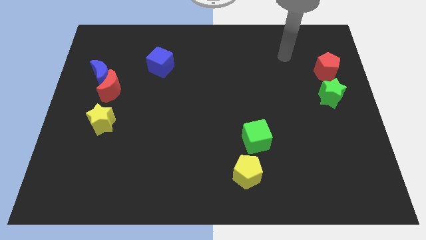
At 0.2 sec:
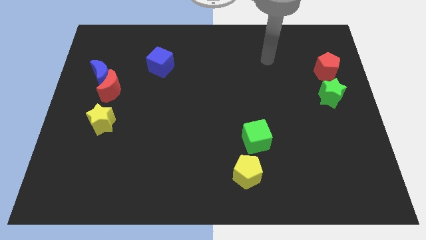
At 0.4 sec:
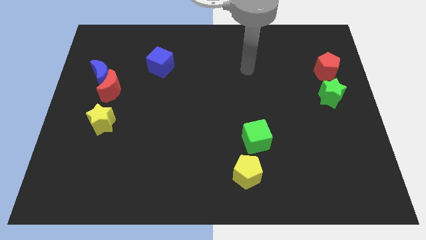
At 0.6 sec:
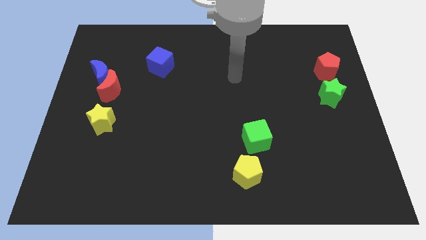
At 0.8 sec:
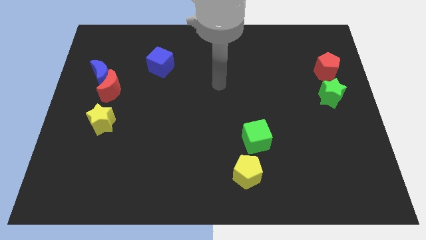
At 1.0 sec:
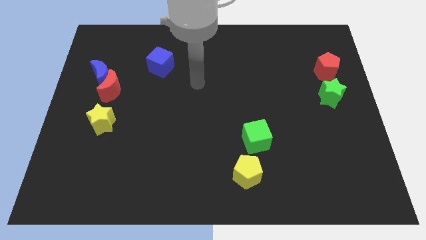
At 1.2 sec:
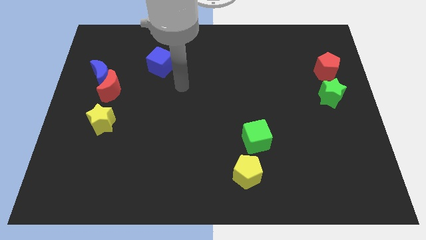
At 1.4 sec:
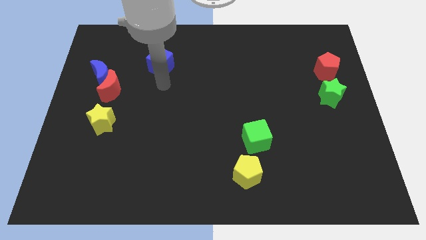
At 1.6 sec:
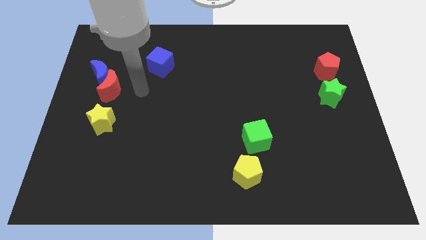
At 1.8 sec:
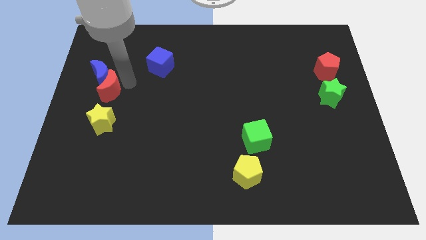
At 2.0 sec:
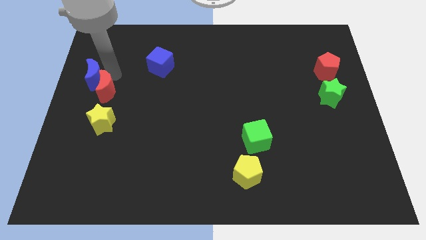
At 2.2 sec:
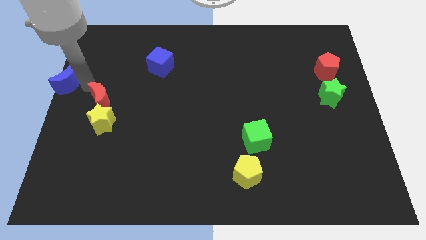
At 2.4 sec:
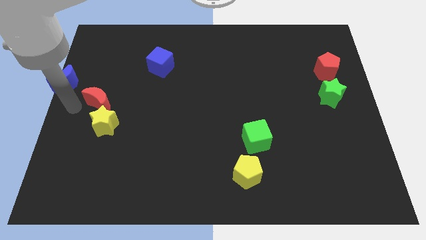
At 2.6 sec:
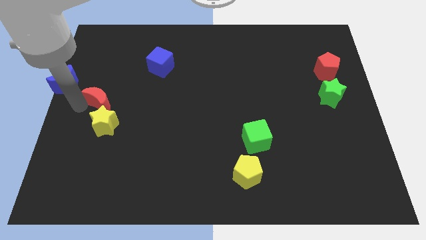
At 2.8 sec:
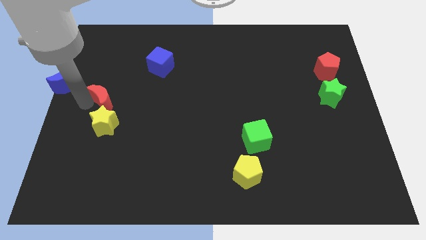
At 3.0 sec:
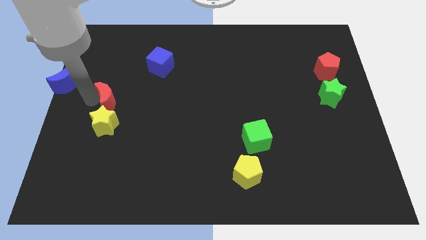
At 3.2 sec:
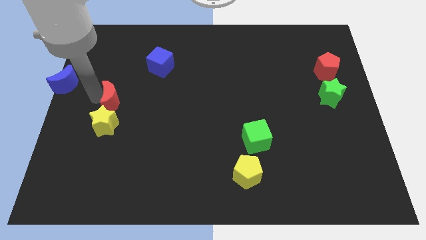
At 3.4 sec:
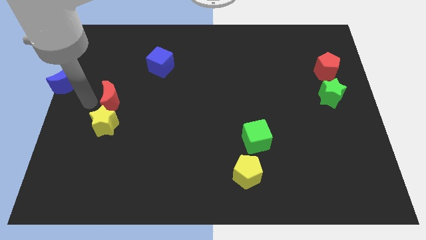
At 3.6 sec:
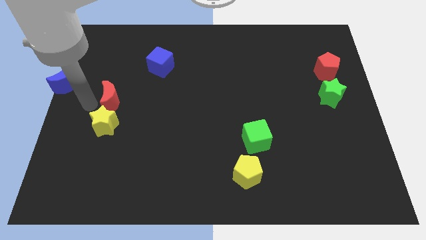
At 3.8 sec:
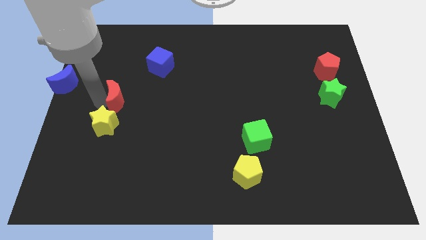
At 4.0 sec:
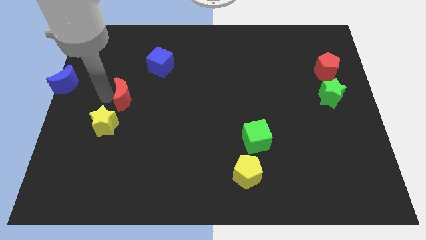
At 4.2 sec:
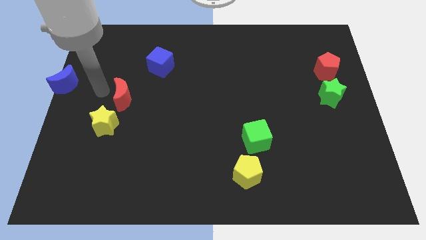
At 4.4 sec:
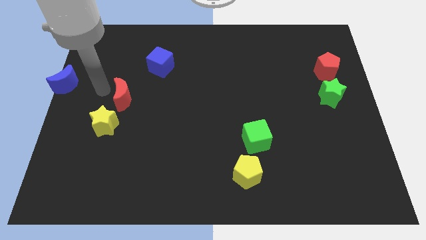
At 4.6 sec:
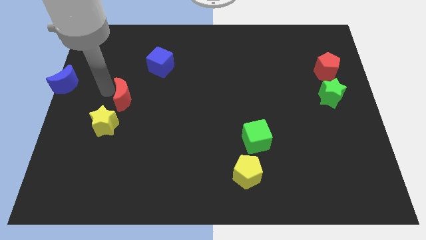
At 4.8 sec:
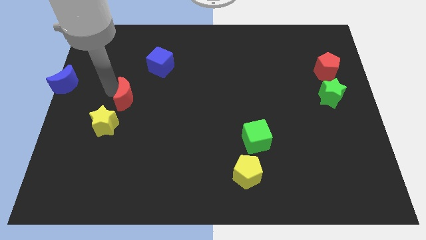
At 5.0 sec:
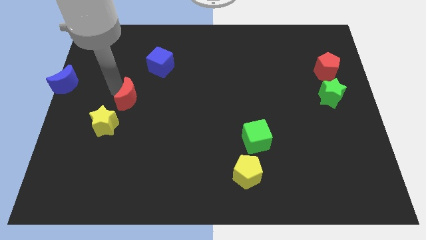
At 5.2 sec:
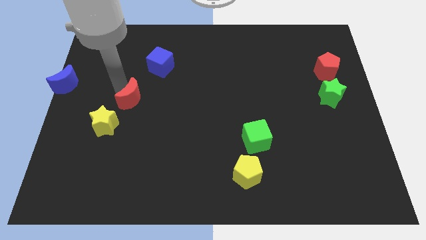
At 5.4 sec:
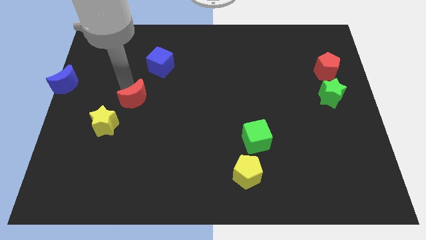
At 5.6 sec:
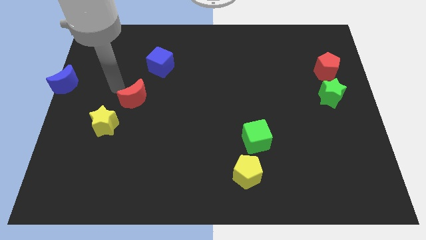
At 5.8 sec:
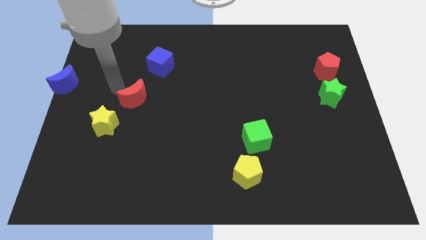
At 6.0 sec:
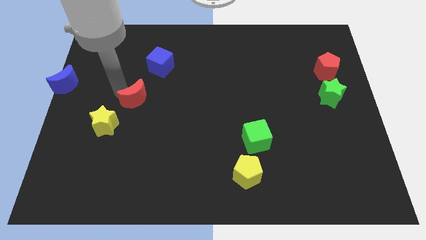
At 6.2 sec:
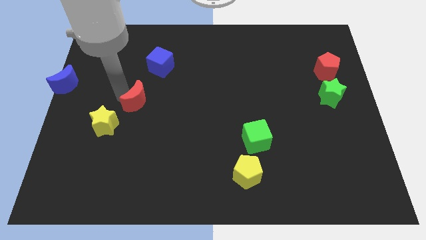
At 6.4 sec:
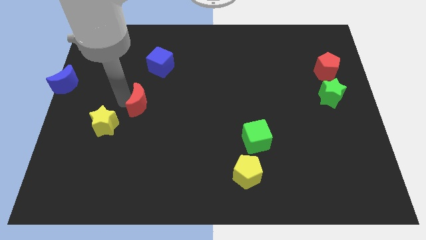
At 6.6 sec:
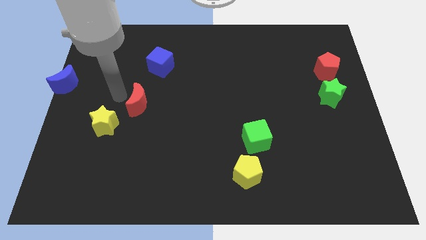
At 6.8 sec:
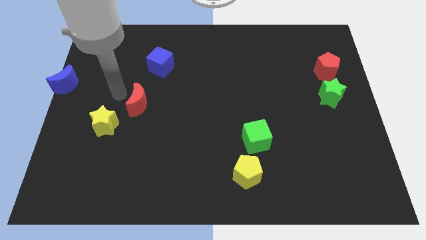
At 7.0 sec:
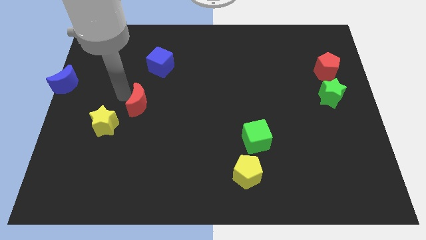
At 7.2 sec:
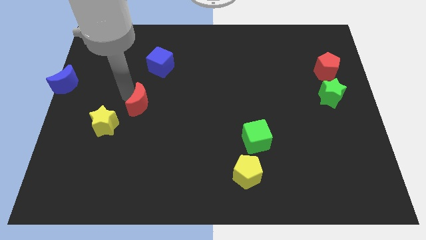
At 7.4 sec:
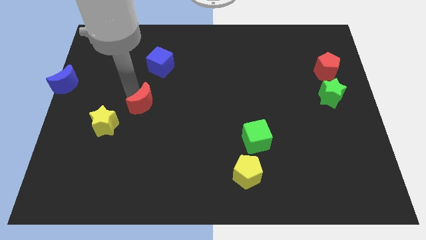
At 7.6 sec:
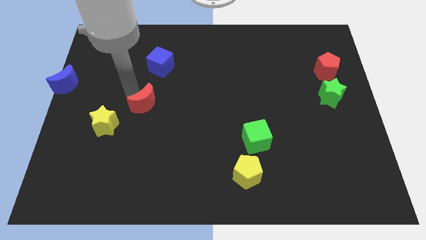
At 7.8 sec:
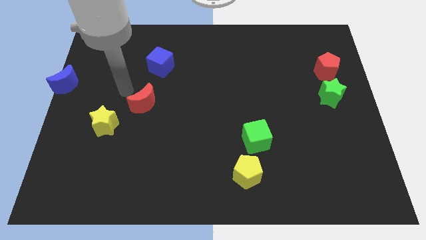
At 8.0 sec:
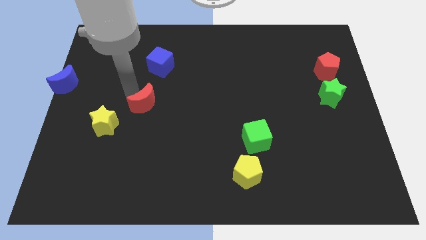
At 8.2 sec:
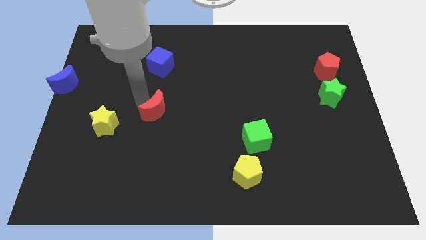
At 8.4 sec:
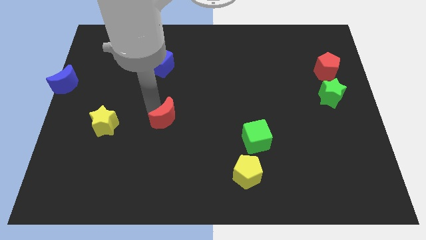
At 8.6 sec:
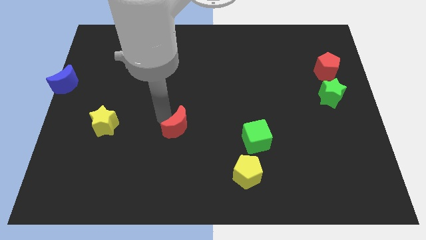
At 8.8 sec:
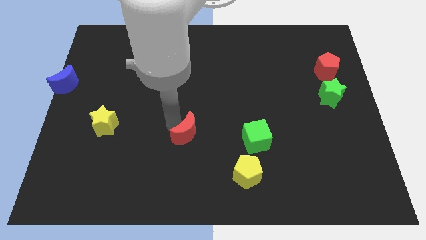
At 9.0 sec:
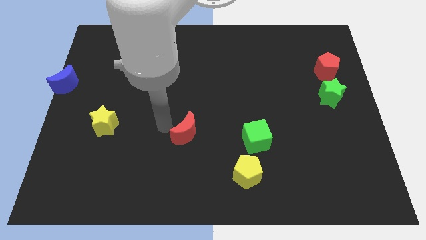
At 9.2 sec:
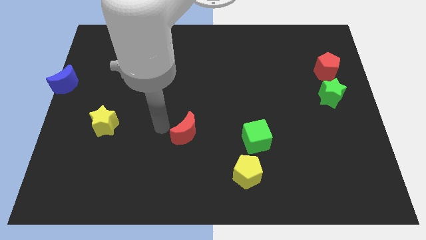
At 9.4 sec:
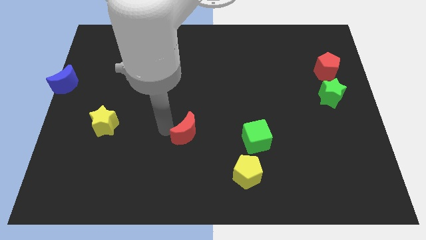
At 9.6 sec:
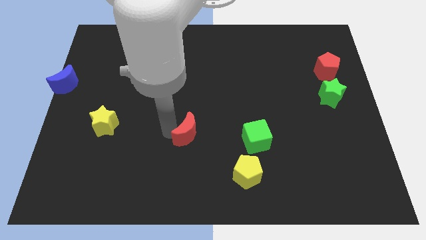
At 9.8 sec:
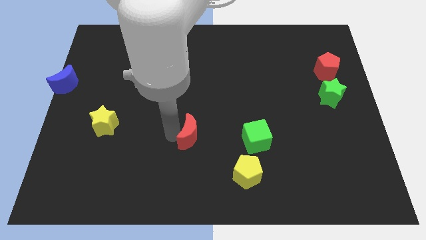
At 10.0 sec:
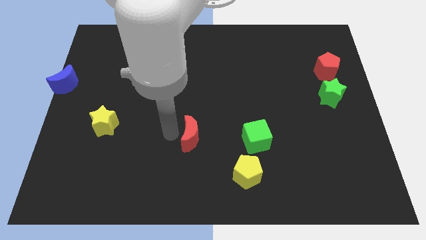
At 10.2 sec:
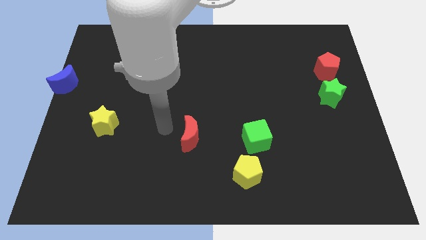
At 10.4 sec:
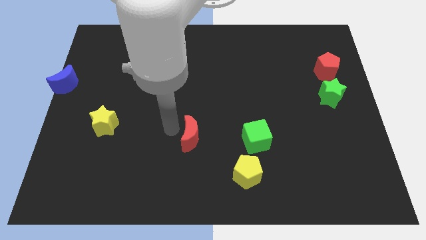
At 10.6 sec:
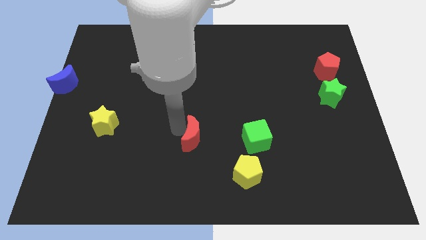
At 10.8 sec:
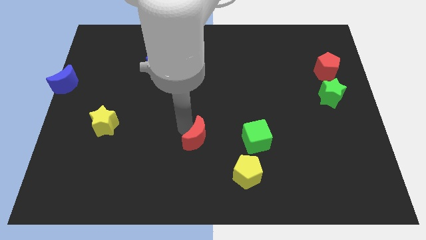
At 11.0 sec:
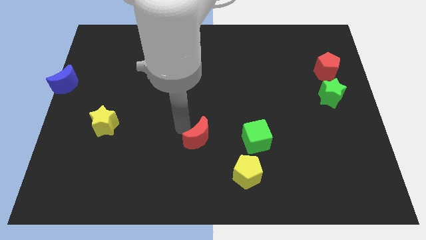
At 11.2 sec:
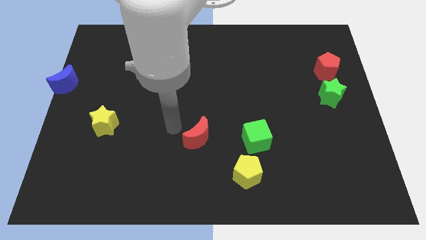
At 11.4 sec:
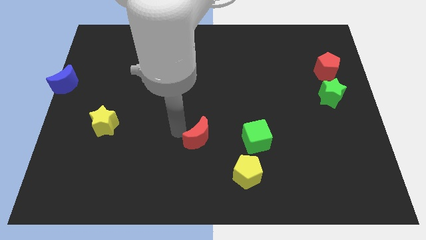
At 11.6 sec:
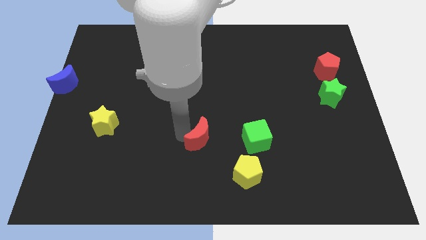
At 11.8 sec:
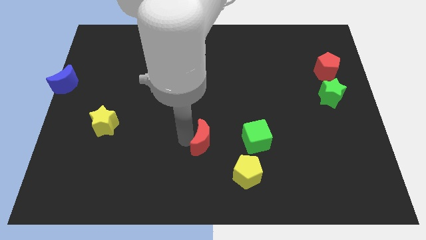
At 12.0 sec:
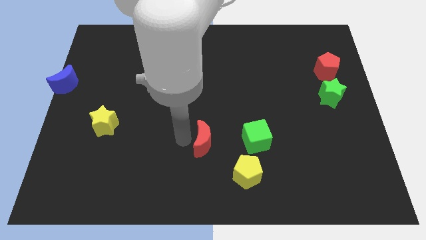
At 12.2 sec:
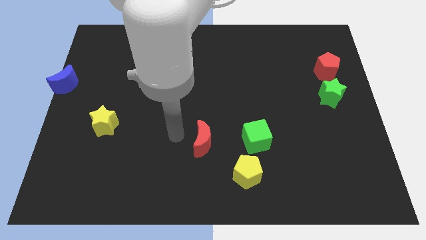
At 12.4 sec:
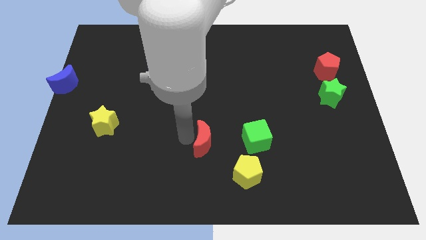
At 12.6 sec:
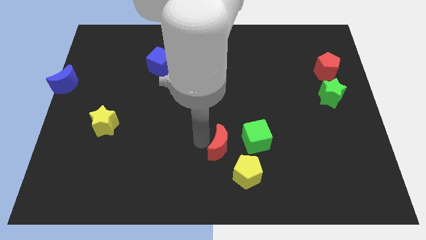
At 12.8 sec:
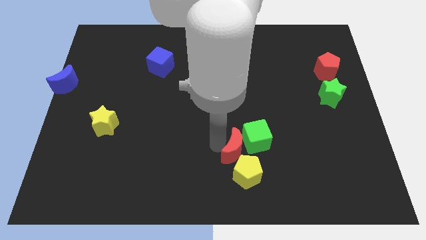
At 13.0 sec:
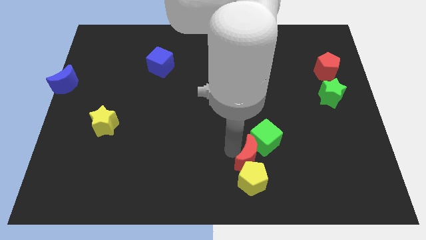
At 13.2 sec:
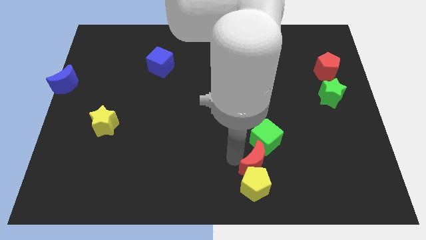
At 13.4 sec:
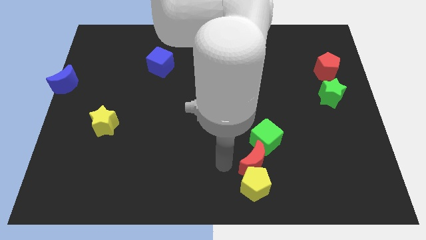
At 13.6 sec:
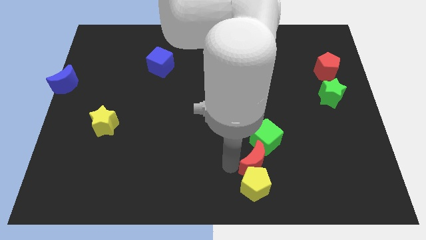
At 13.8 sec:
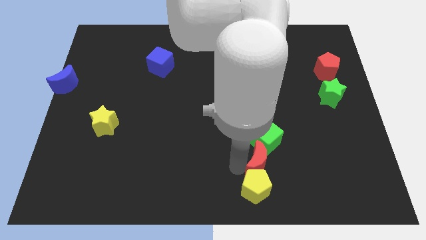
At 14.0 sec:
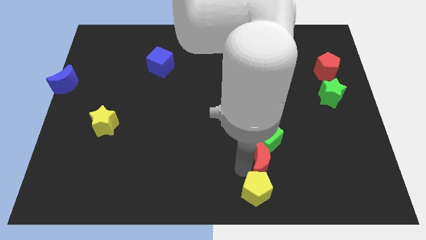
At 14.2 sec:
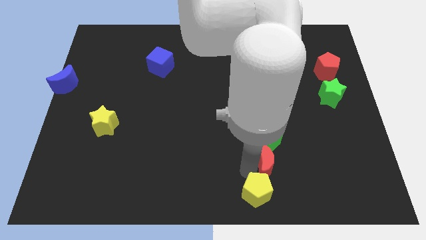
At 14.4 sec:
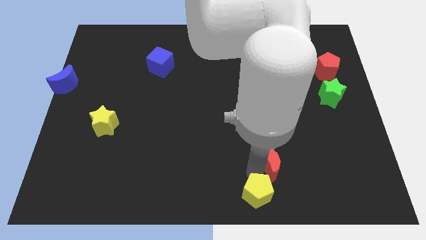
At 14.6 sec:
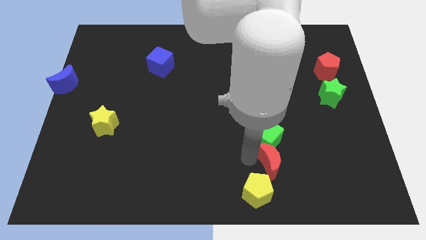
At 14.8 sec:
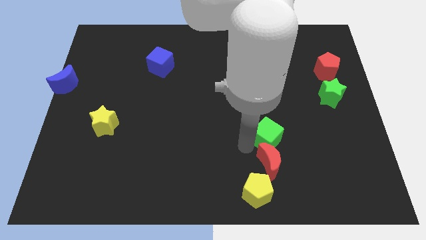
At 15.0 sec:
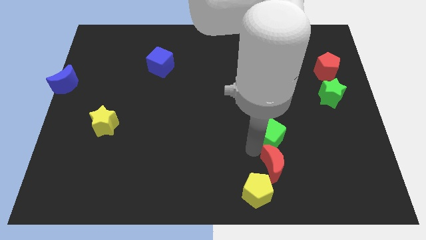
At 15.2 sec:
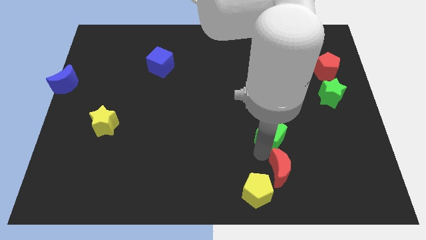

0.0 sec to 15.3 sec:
slide the red moon right of the yellow pentagon
